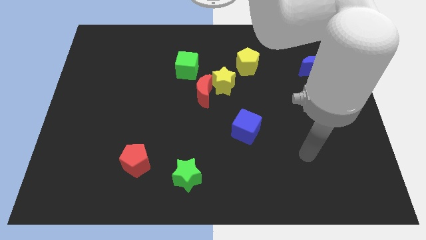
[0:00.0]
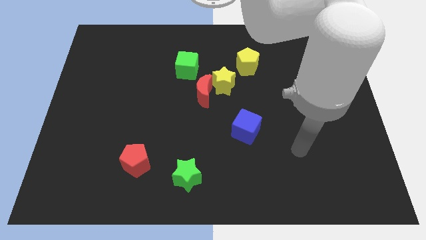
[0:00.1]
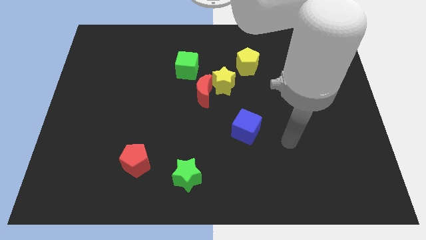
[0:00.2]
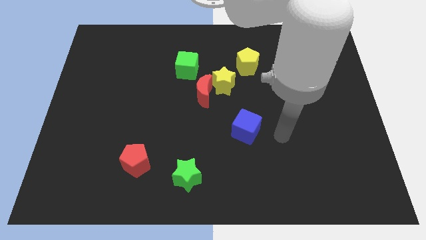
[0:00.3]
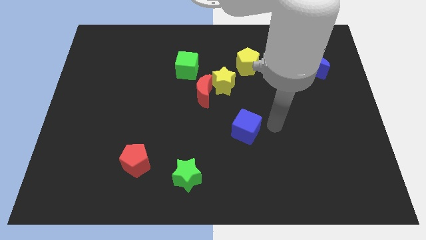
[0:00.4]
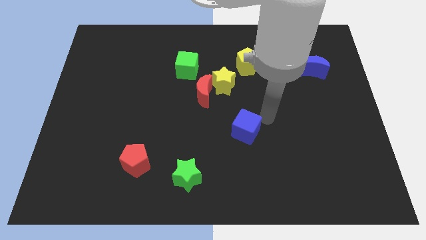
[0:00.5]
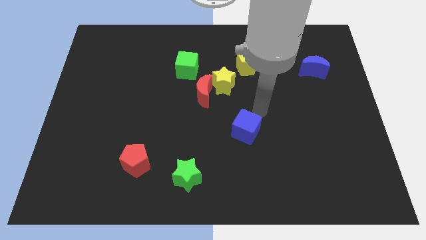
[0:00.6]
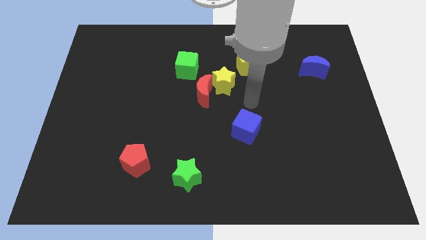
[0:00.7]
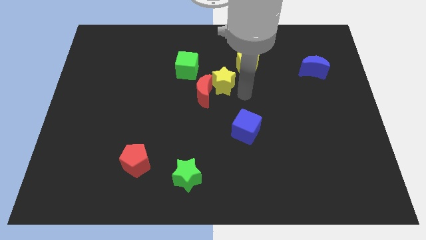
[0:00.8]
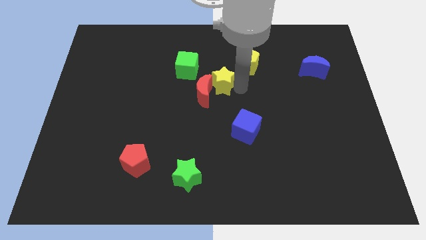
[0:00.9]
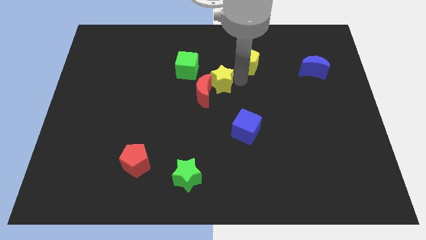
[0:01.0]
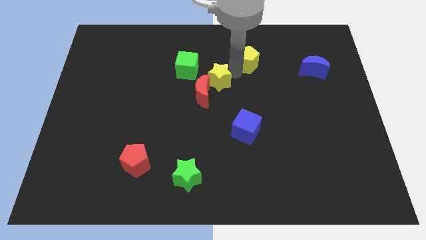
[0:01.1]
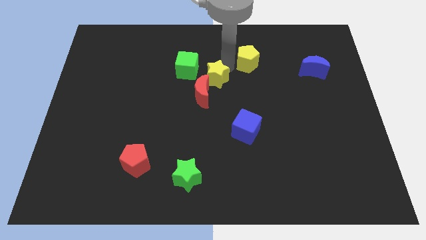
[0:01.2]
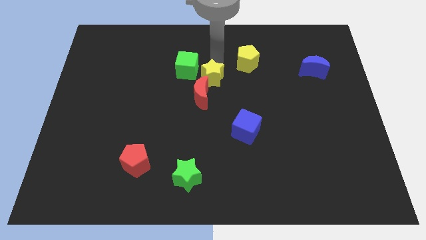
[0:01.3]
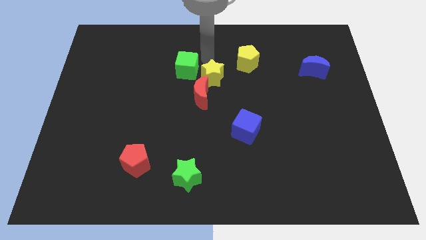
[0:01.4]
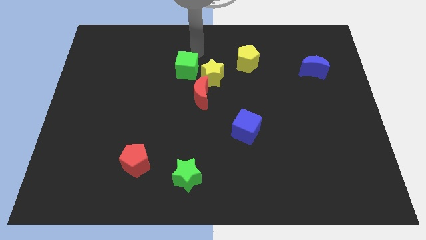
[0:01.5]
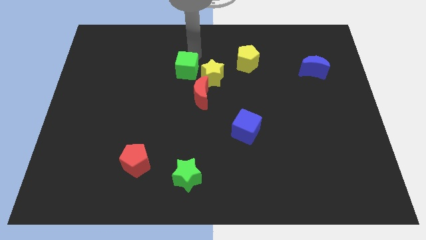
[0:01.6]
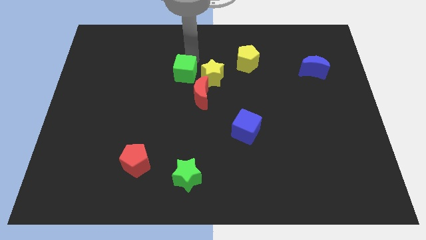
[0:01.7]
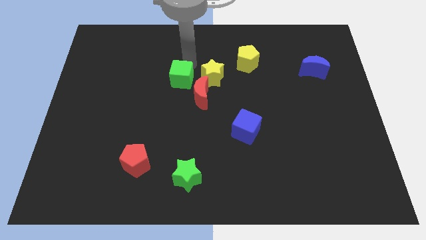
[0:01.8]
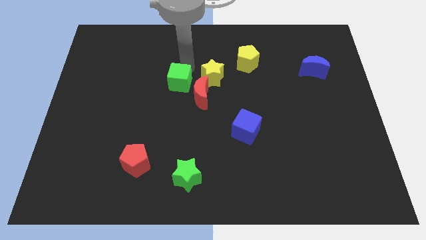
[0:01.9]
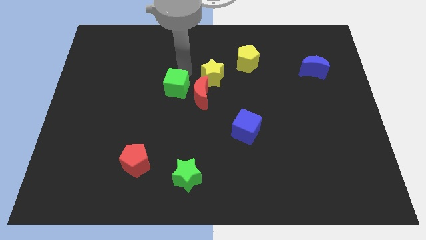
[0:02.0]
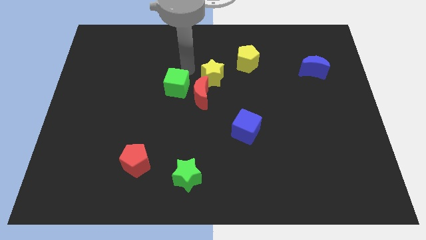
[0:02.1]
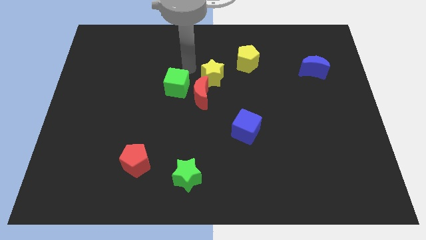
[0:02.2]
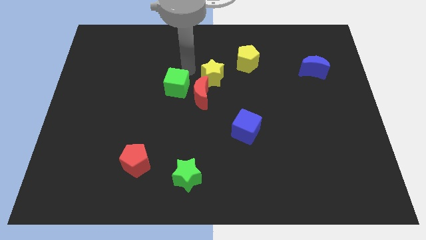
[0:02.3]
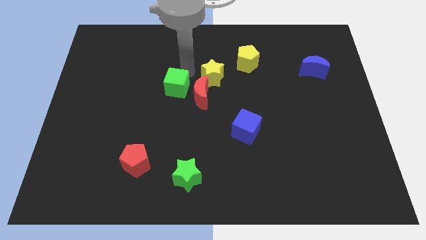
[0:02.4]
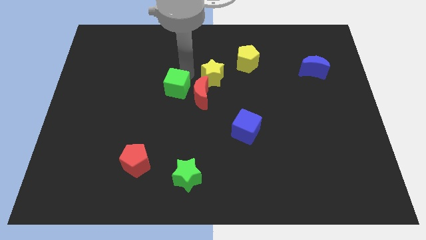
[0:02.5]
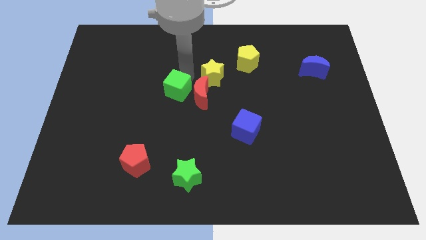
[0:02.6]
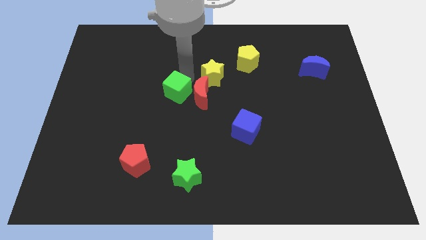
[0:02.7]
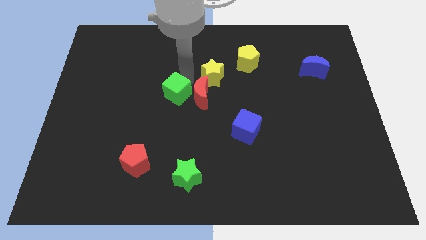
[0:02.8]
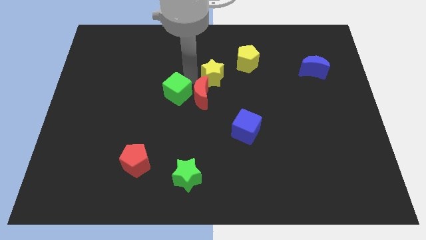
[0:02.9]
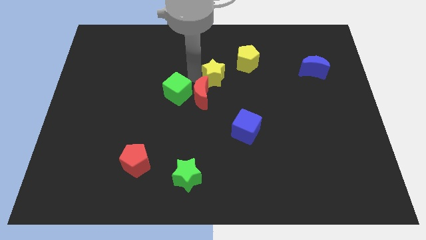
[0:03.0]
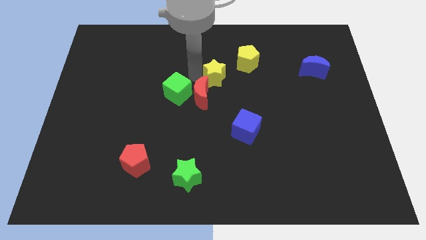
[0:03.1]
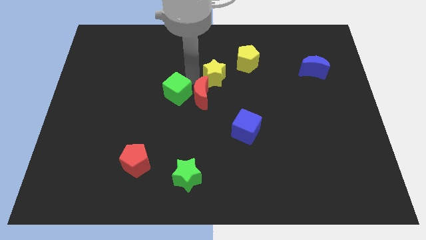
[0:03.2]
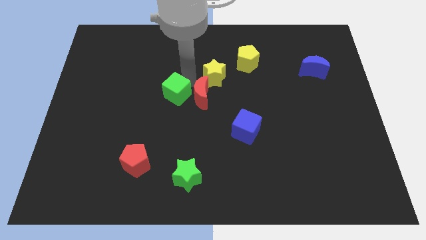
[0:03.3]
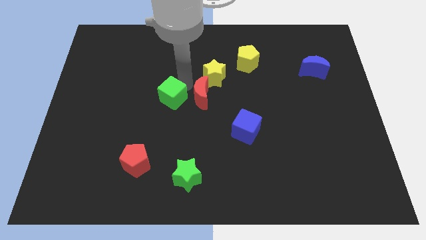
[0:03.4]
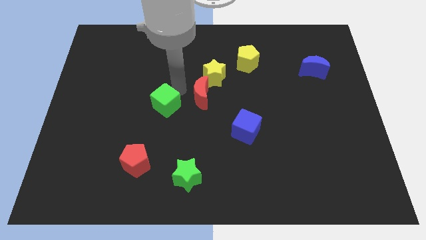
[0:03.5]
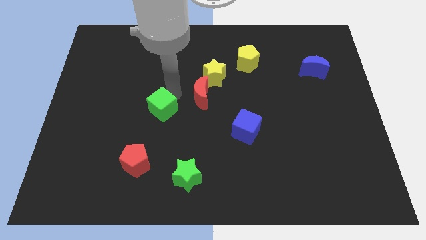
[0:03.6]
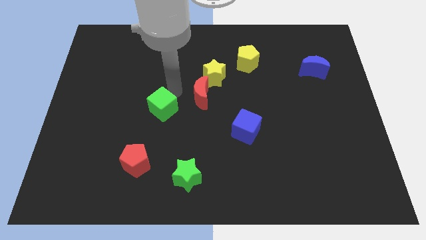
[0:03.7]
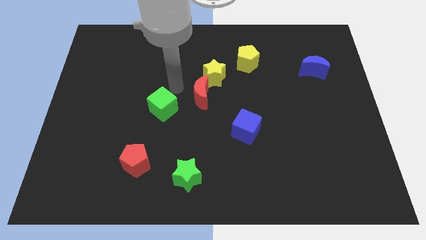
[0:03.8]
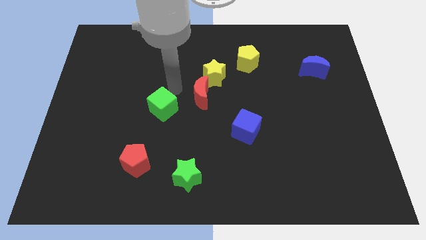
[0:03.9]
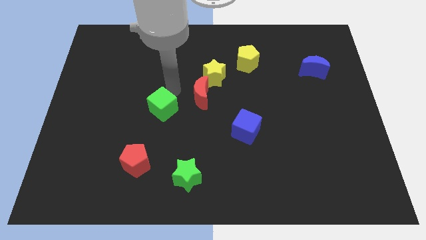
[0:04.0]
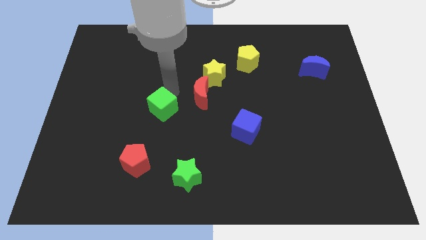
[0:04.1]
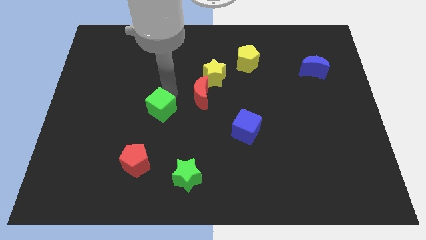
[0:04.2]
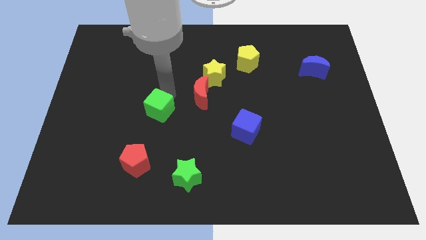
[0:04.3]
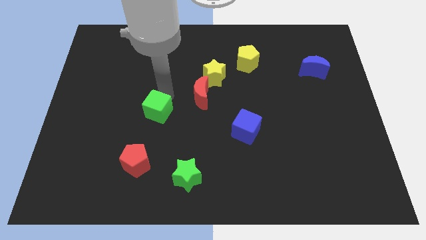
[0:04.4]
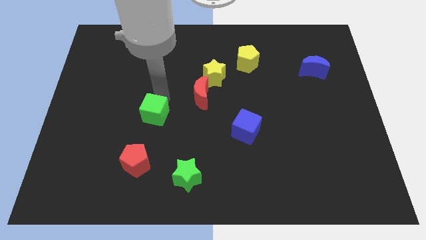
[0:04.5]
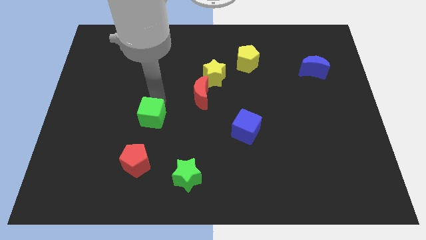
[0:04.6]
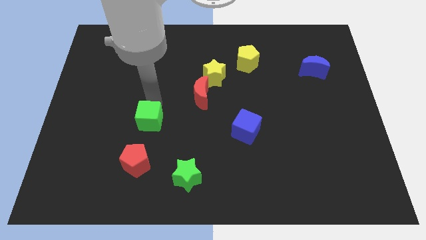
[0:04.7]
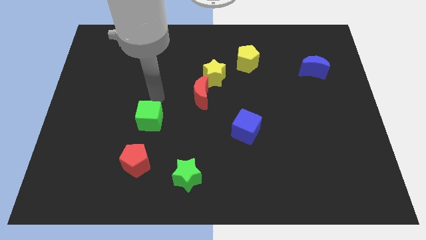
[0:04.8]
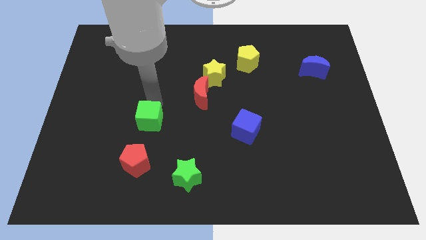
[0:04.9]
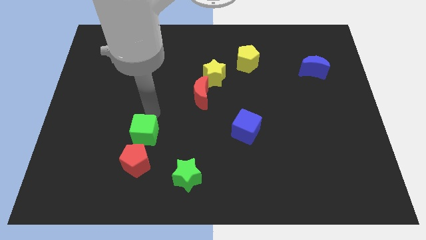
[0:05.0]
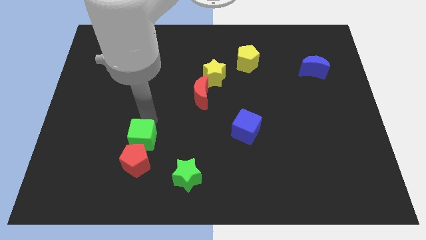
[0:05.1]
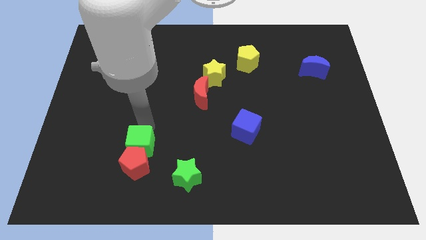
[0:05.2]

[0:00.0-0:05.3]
push the green cube towards the red pentagon

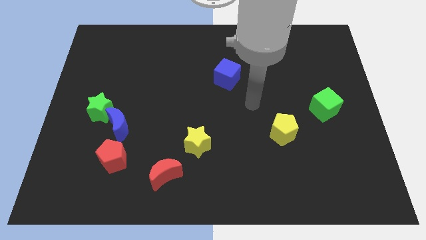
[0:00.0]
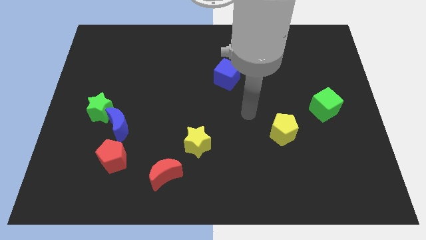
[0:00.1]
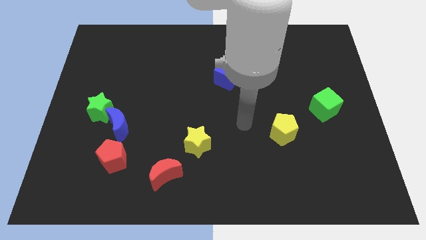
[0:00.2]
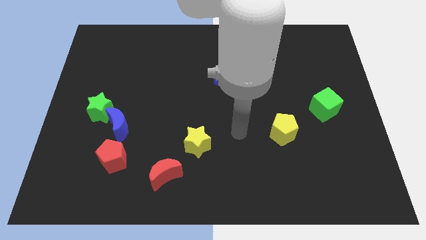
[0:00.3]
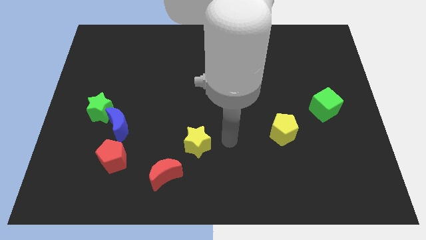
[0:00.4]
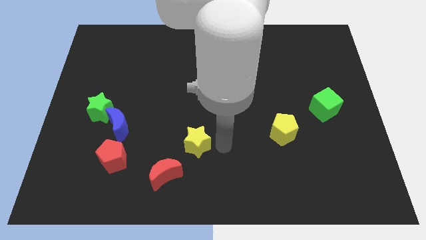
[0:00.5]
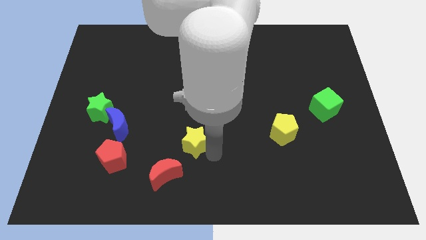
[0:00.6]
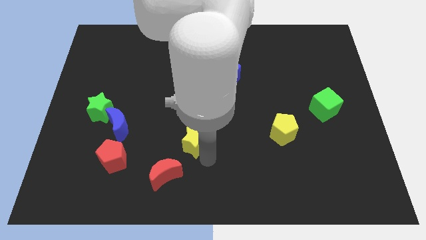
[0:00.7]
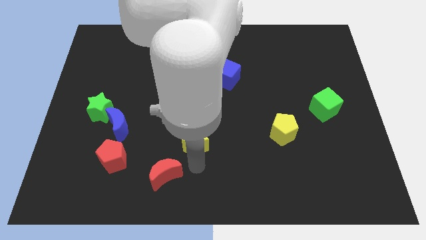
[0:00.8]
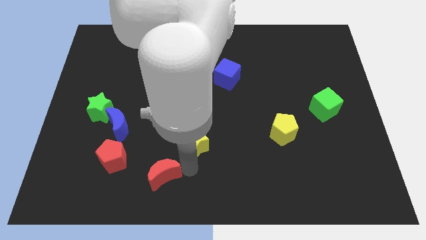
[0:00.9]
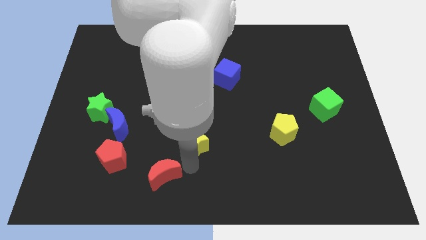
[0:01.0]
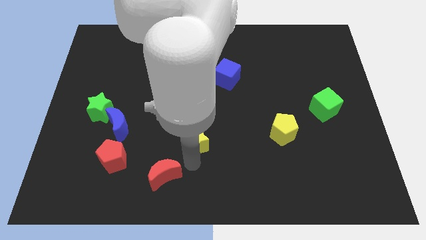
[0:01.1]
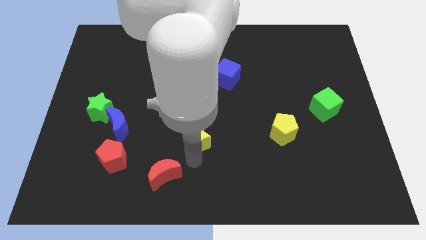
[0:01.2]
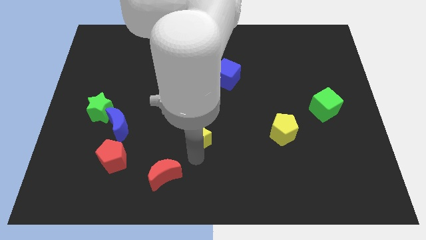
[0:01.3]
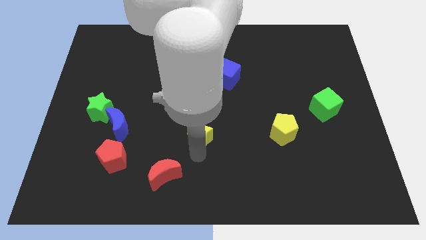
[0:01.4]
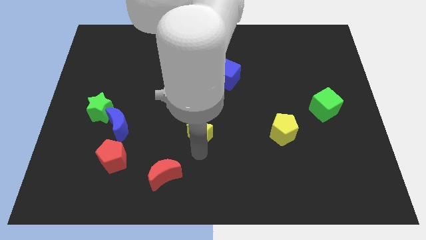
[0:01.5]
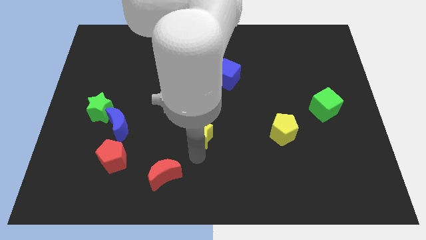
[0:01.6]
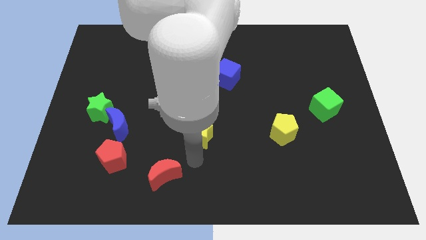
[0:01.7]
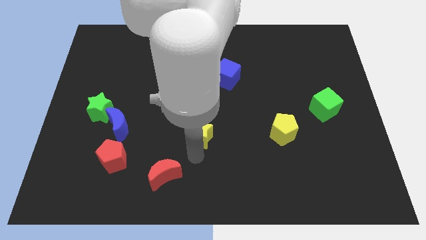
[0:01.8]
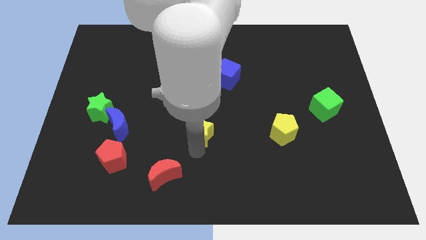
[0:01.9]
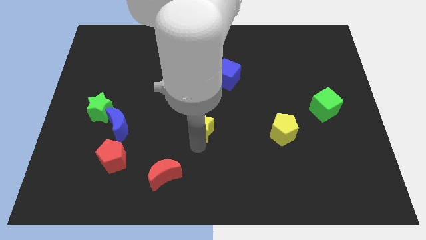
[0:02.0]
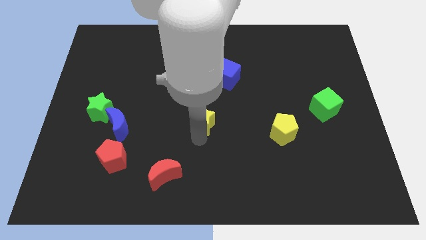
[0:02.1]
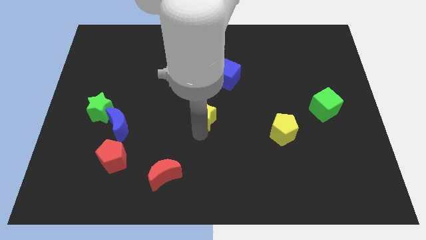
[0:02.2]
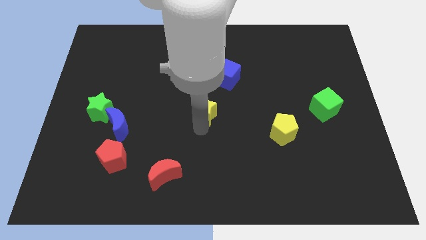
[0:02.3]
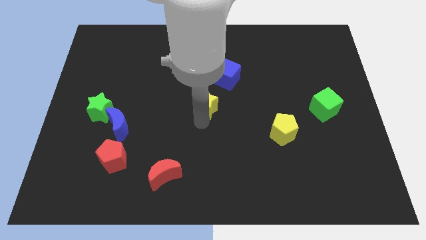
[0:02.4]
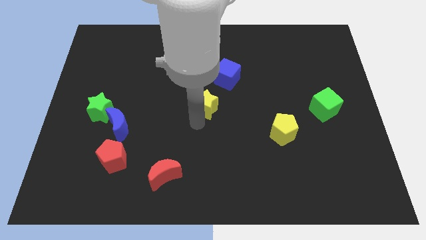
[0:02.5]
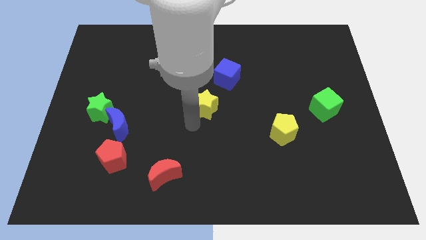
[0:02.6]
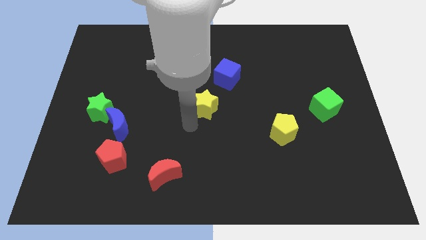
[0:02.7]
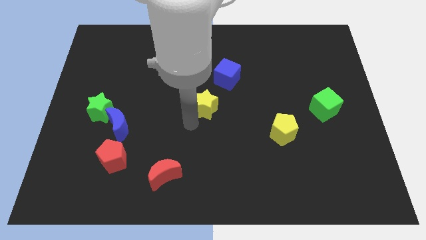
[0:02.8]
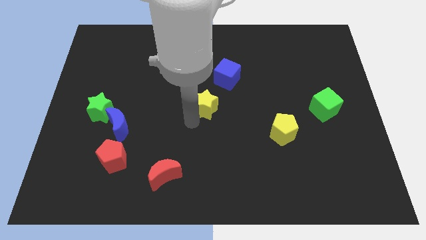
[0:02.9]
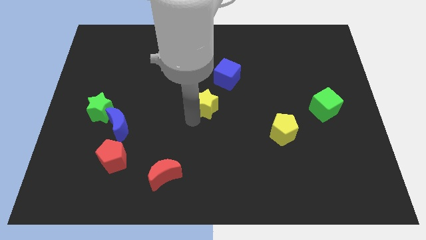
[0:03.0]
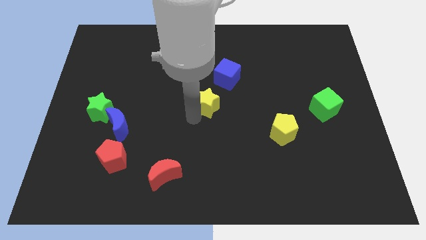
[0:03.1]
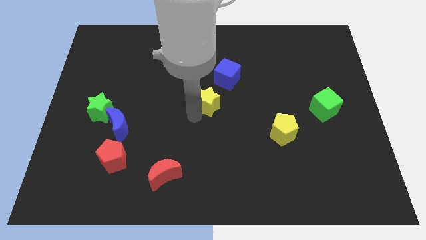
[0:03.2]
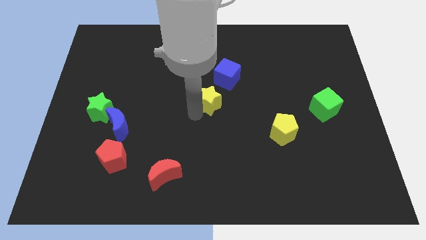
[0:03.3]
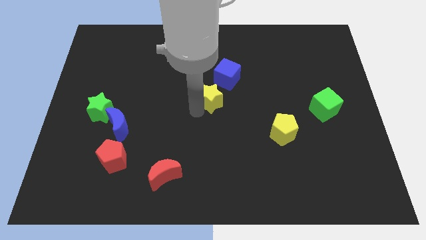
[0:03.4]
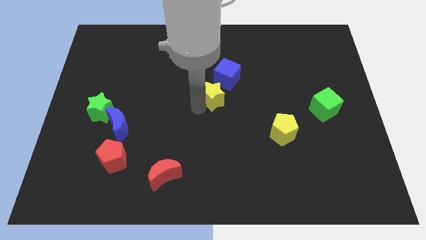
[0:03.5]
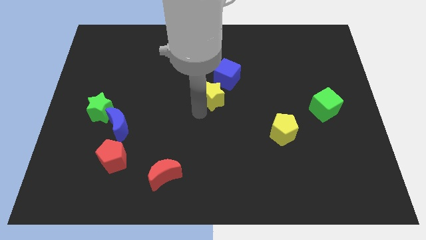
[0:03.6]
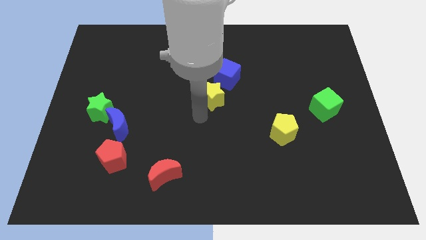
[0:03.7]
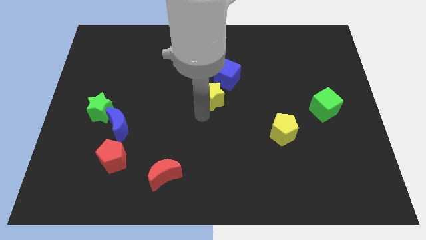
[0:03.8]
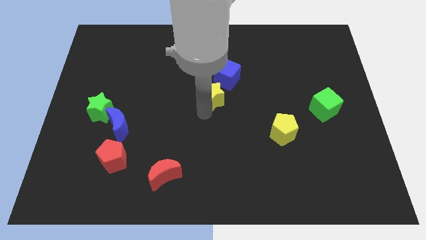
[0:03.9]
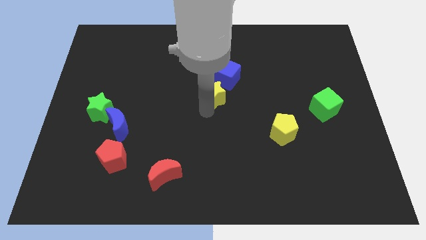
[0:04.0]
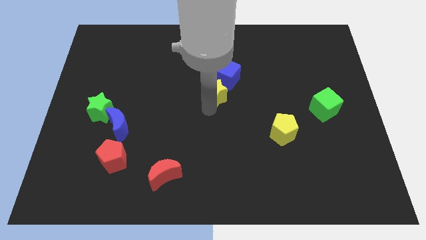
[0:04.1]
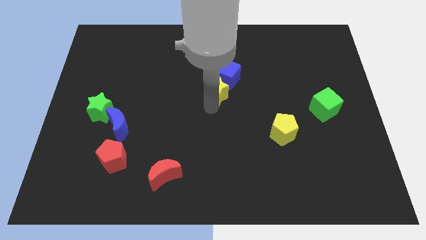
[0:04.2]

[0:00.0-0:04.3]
move the yellow star towards the blue cube
